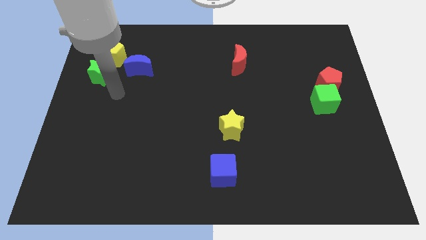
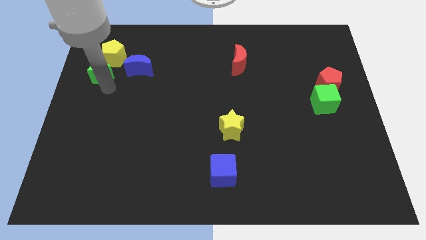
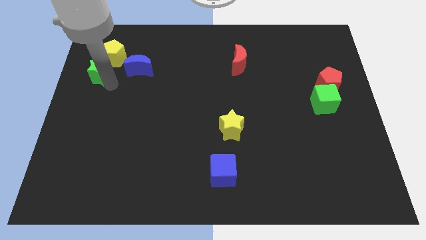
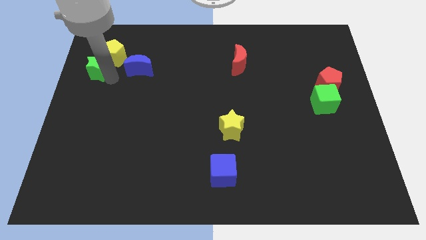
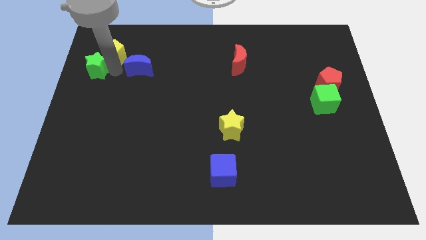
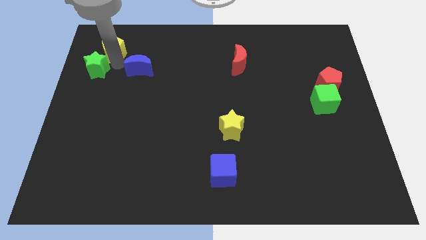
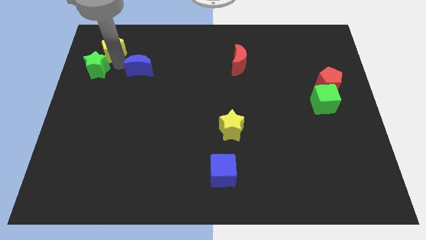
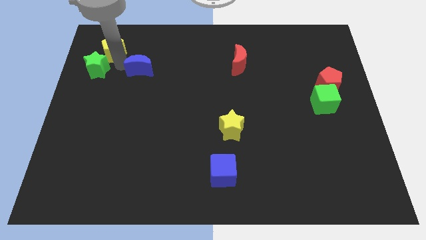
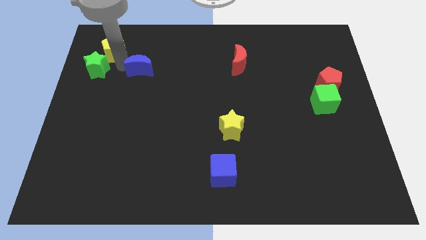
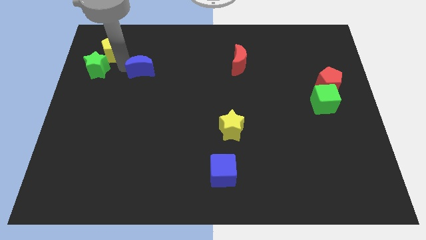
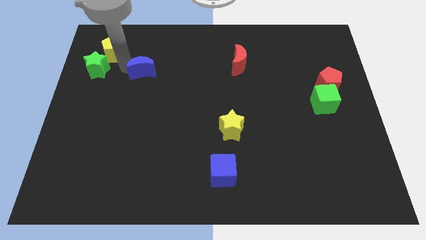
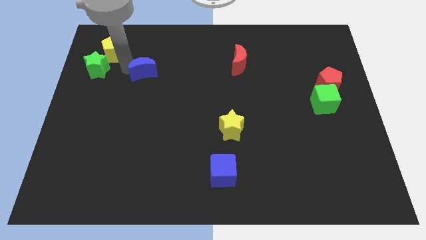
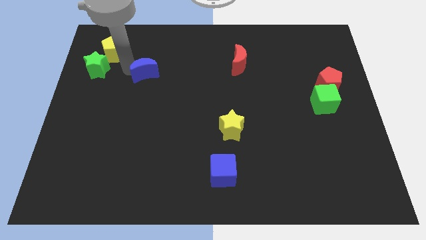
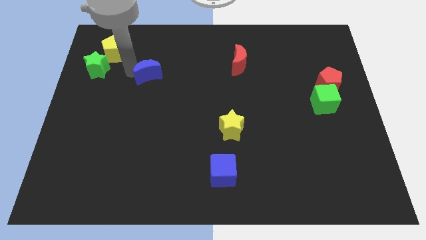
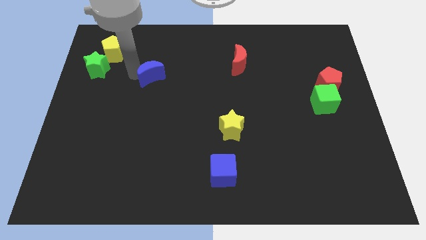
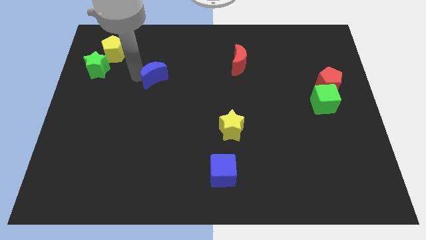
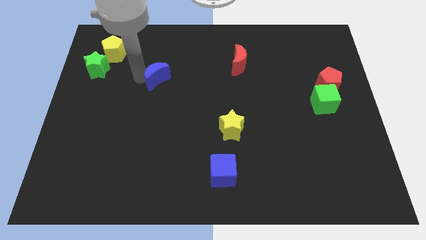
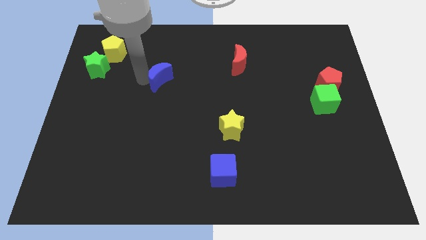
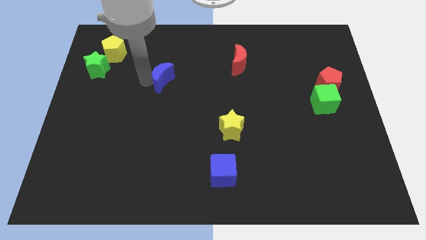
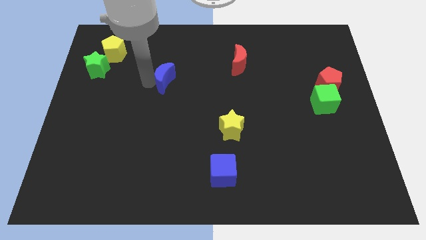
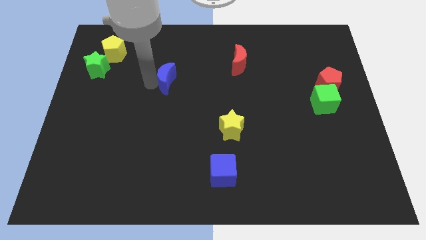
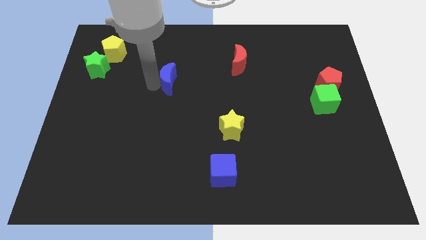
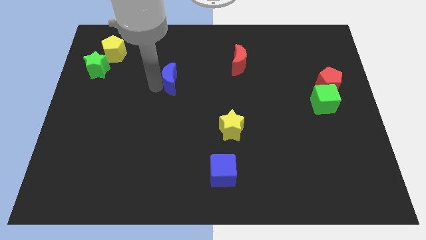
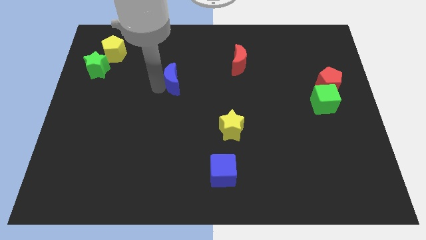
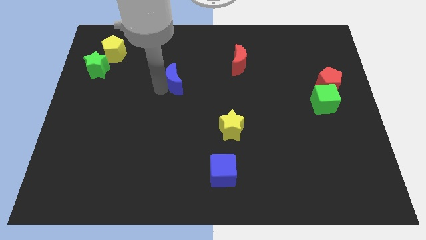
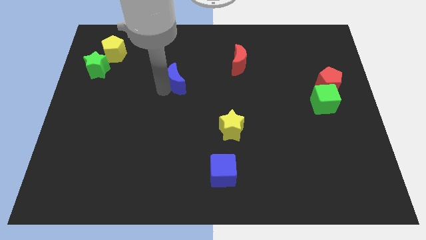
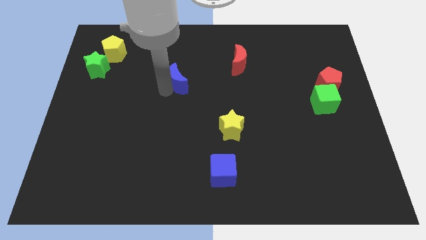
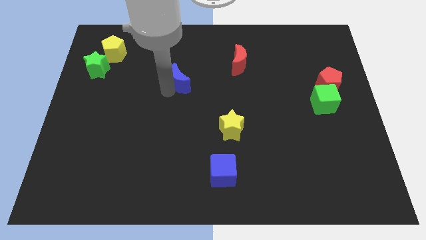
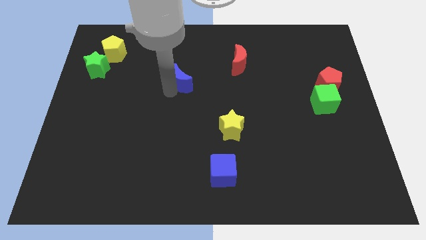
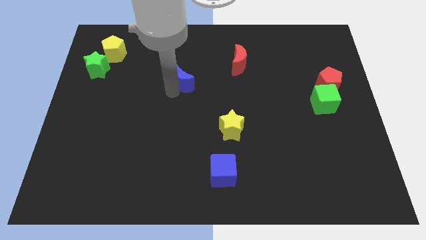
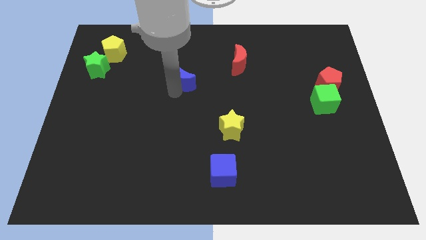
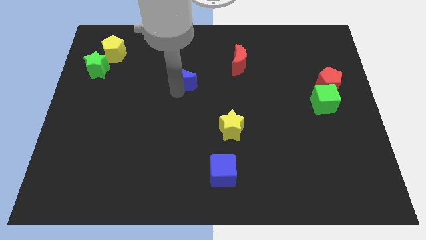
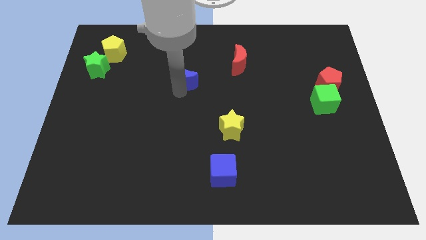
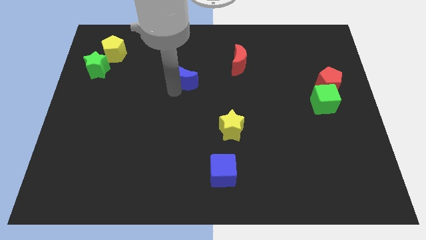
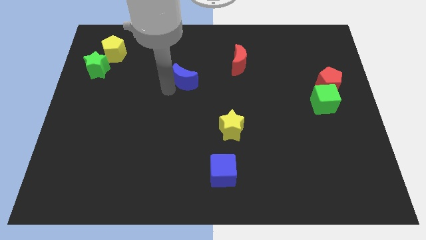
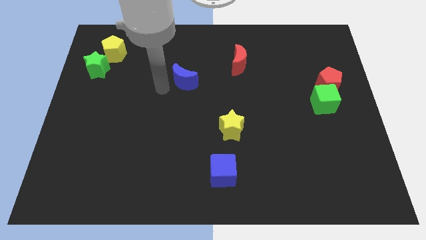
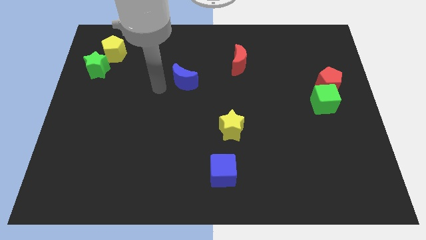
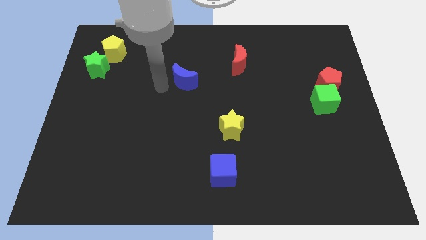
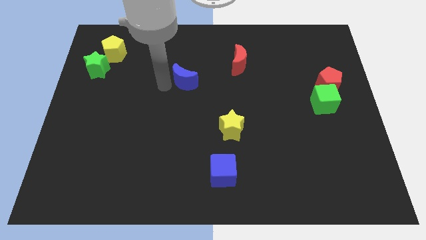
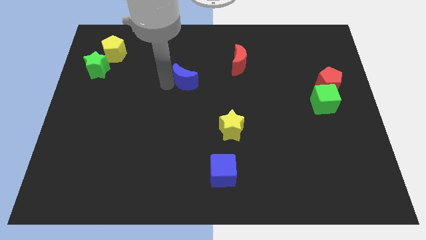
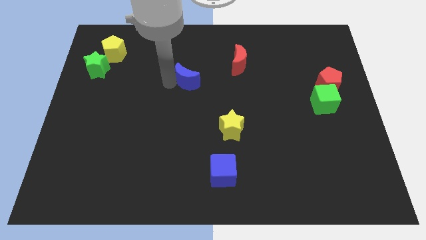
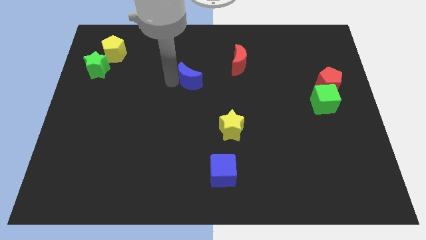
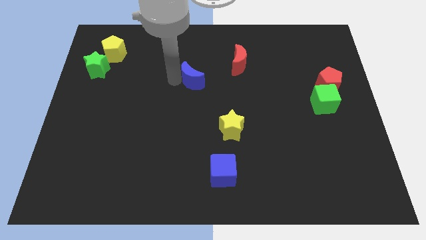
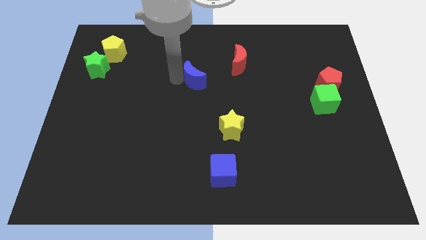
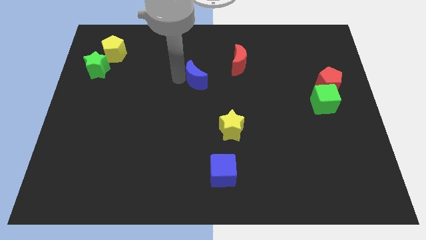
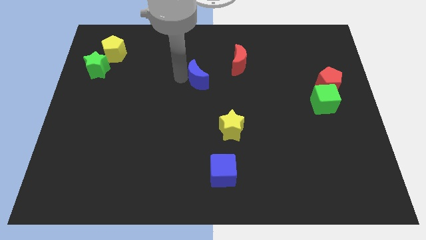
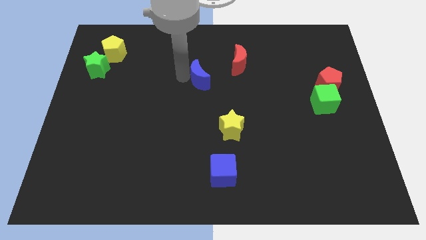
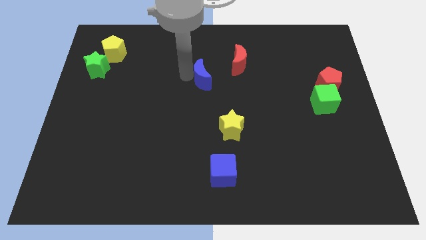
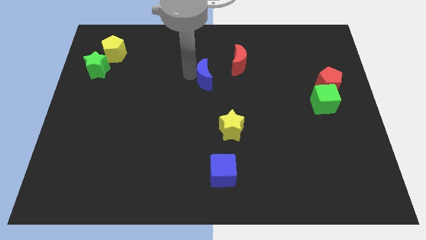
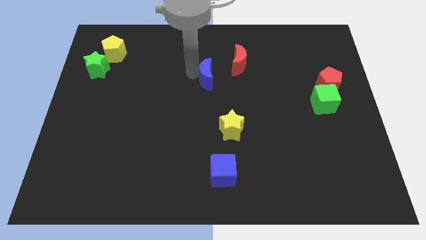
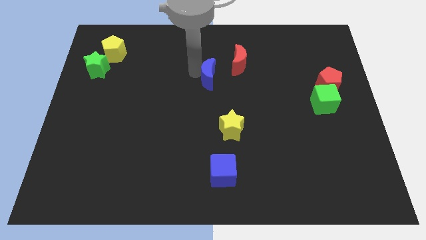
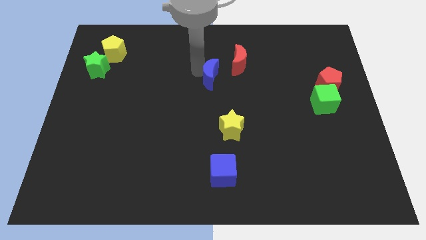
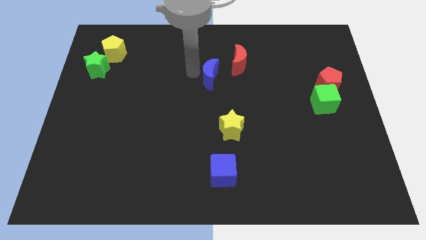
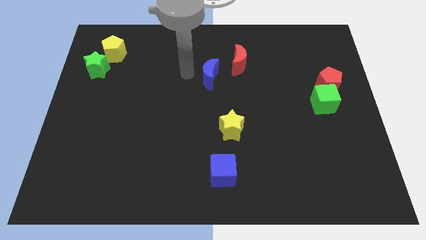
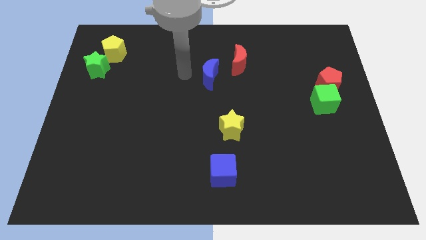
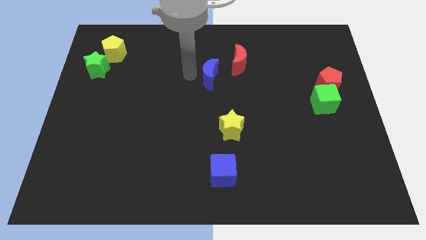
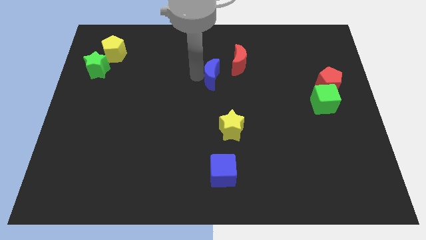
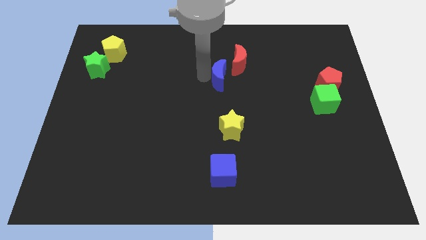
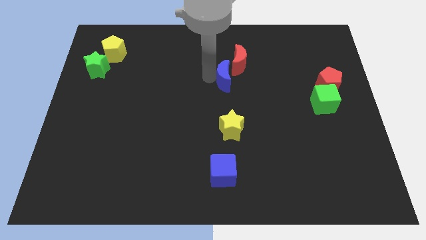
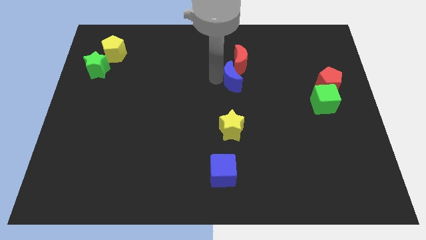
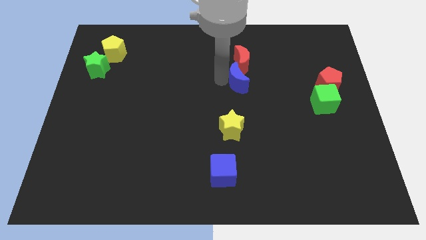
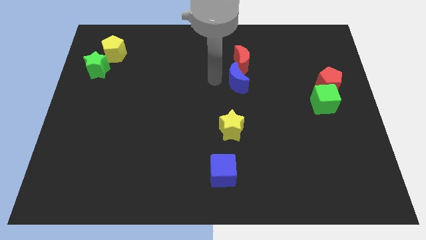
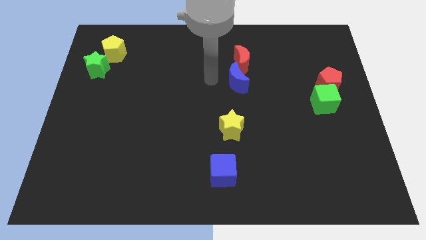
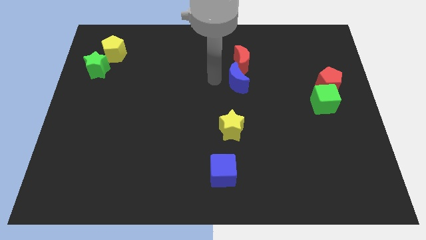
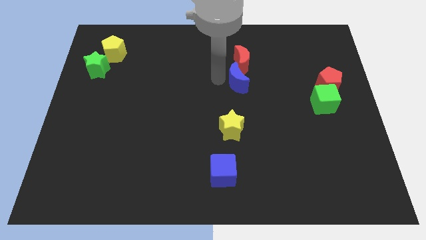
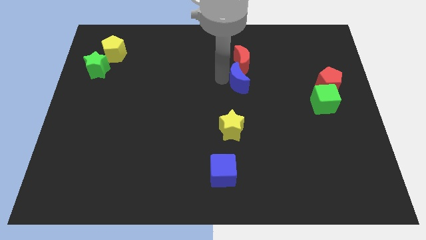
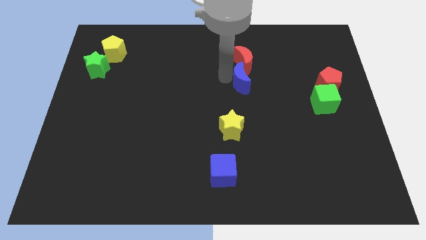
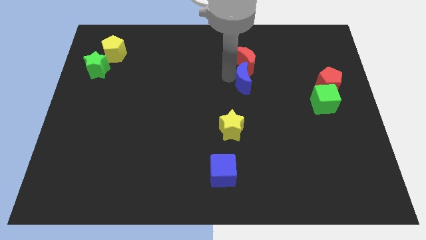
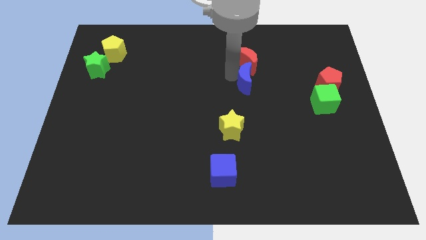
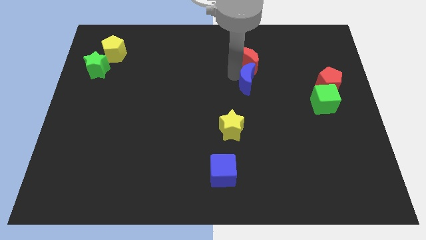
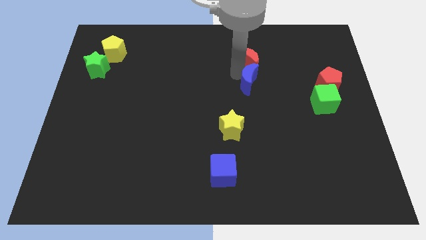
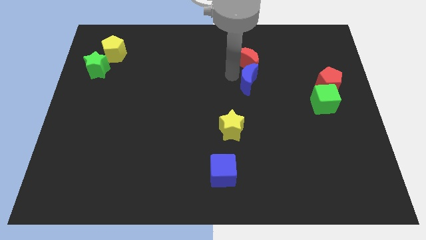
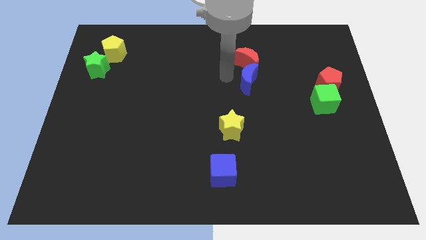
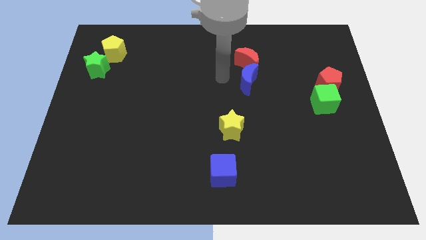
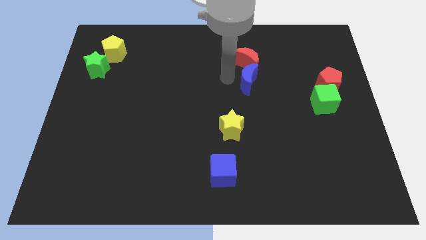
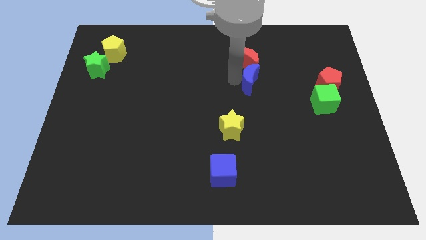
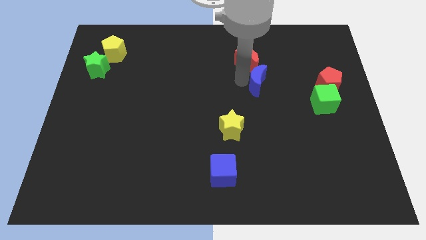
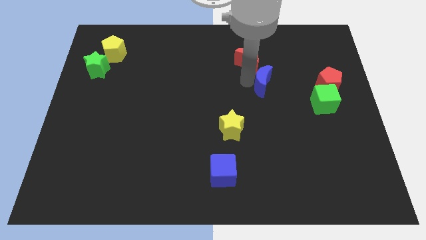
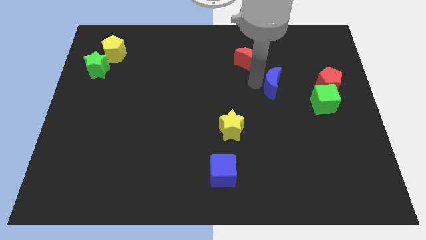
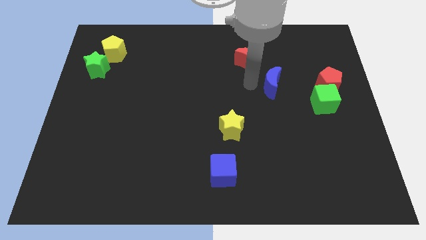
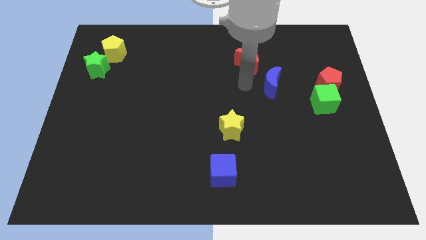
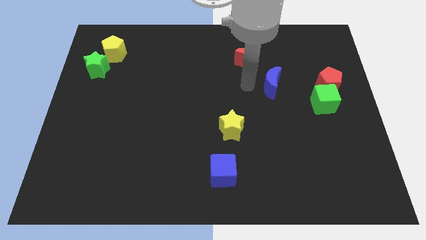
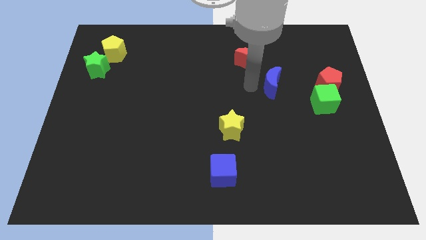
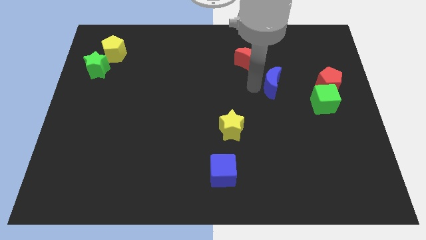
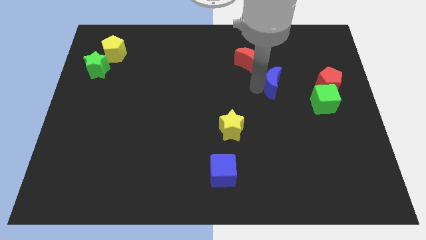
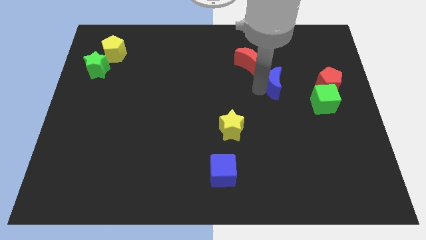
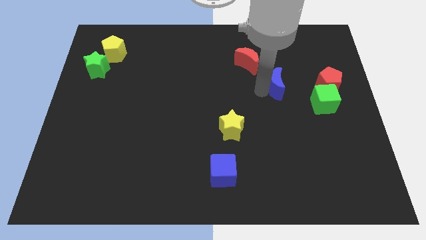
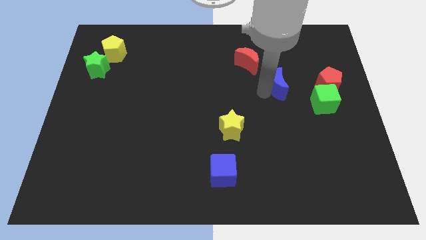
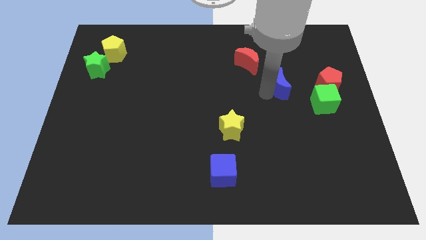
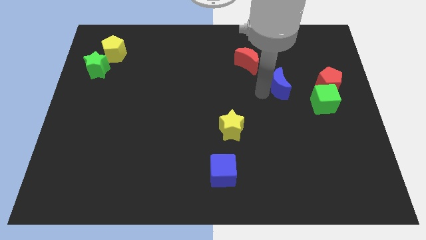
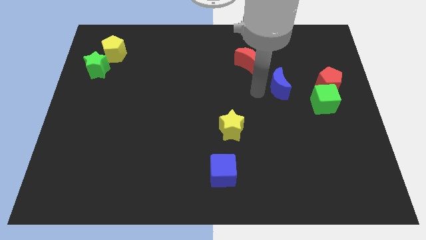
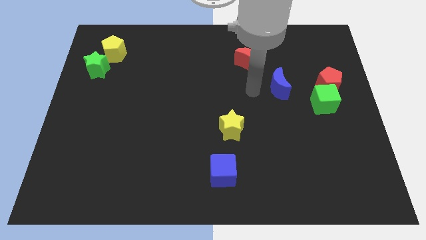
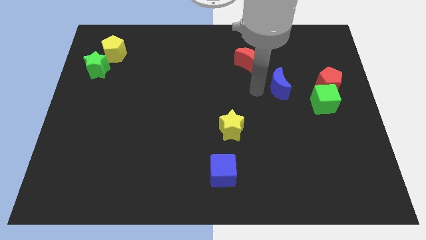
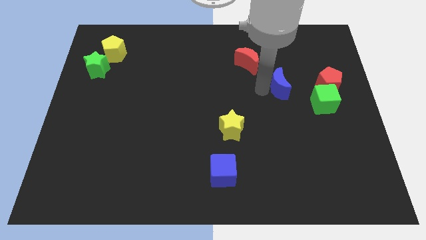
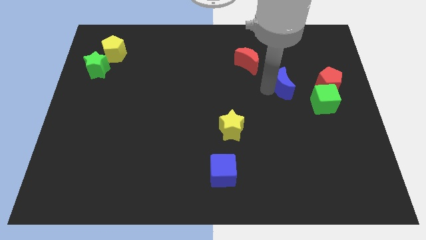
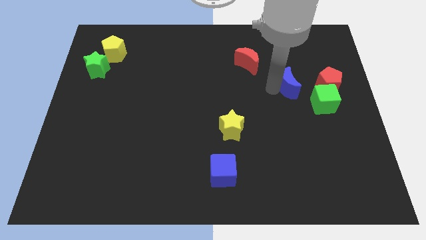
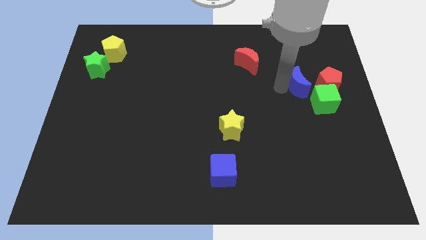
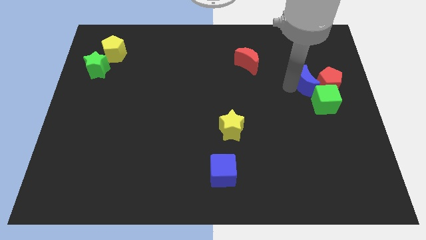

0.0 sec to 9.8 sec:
put the blue moon towards the red pentagon
